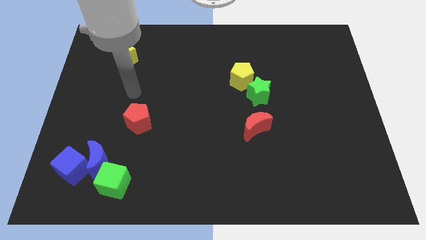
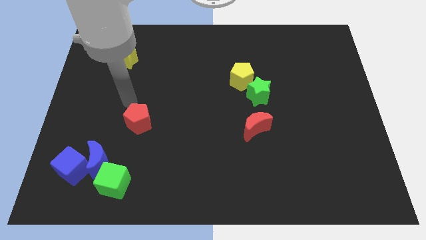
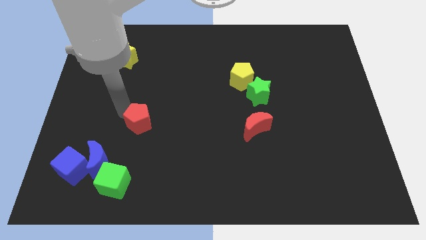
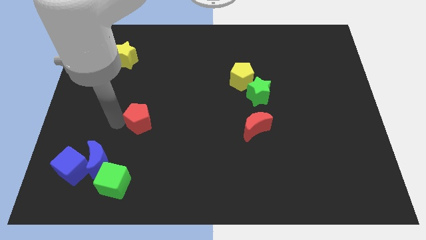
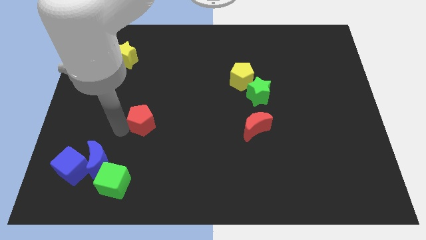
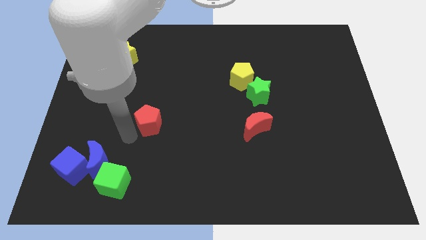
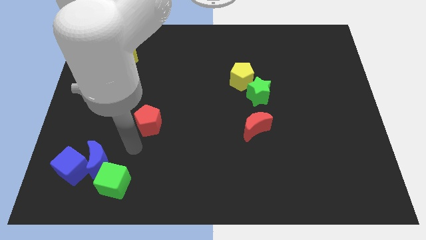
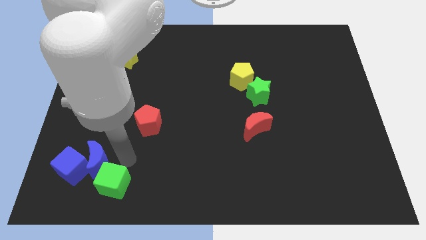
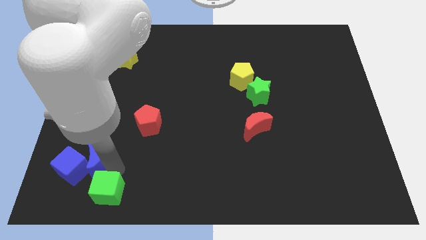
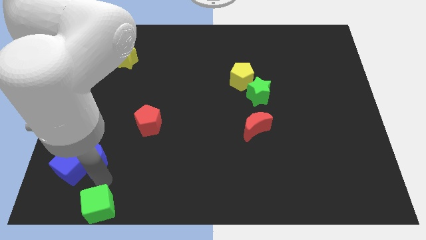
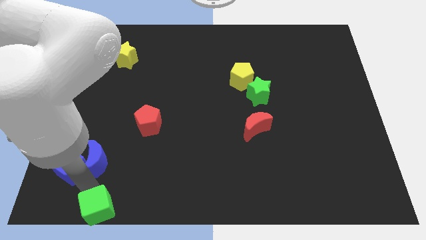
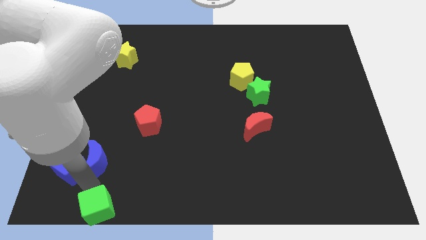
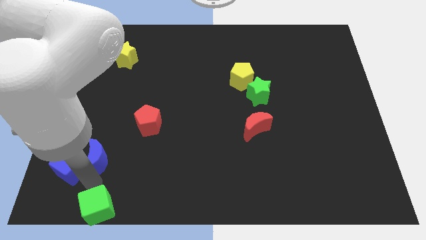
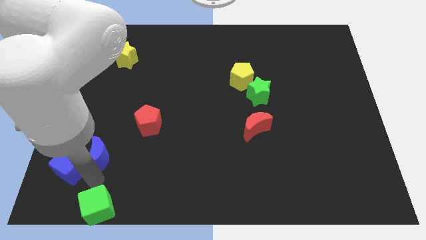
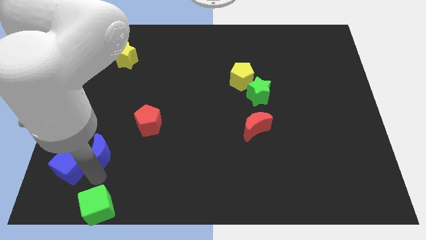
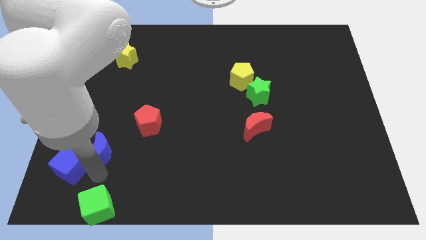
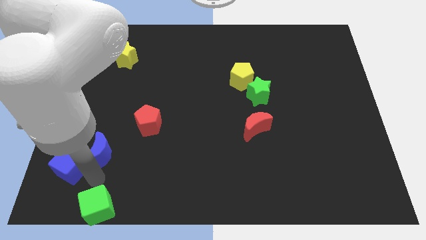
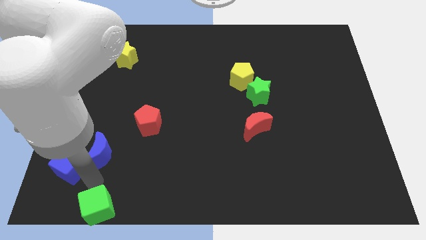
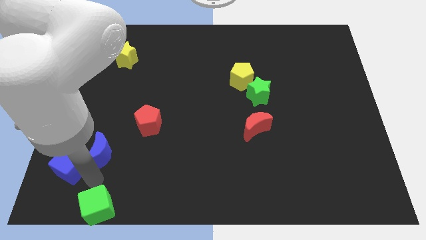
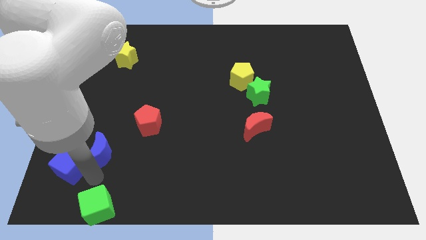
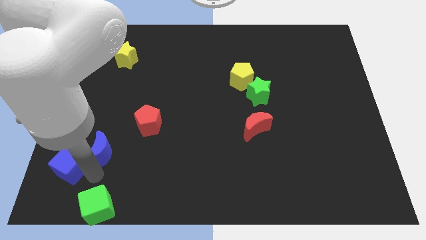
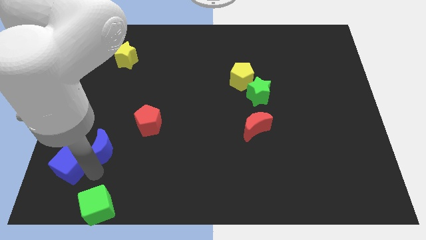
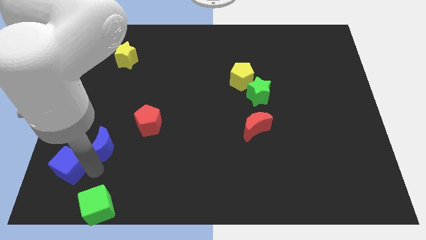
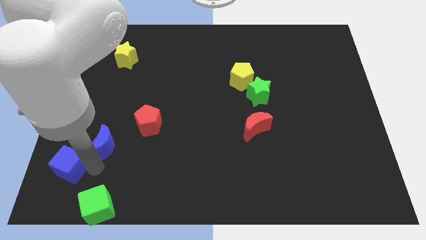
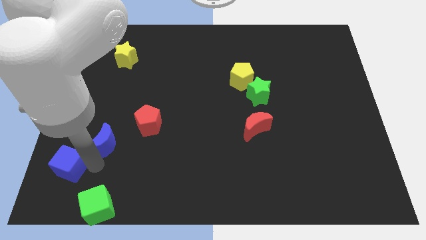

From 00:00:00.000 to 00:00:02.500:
move the blue moon away from the blue cube and green cube

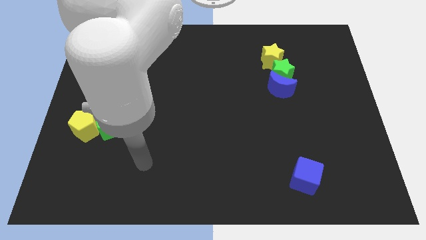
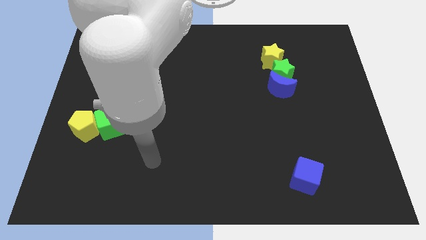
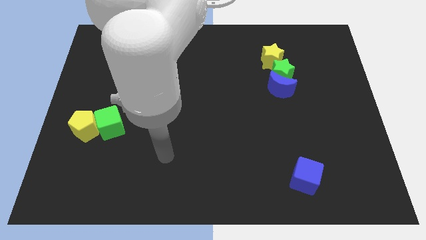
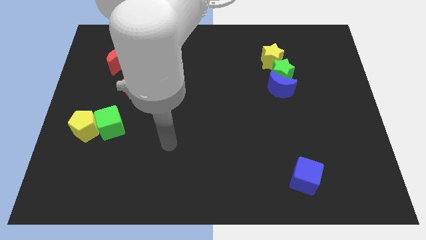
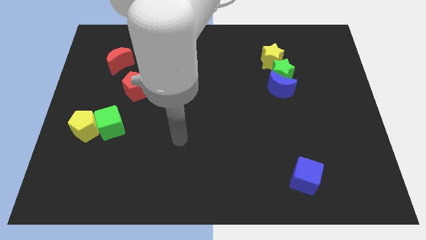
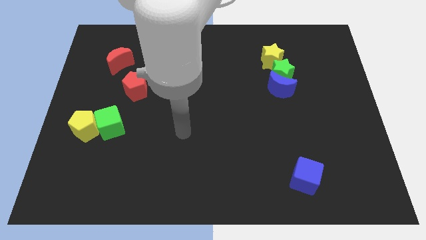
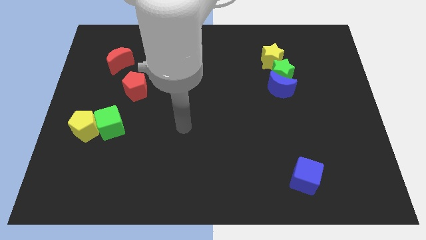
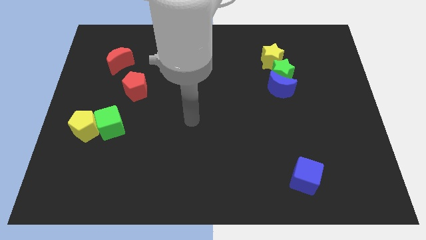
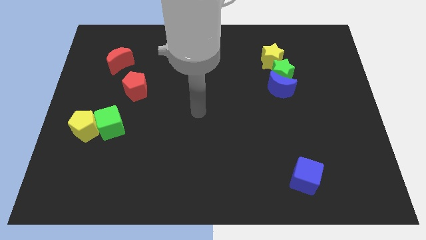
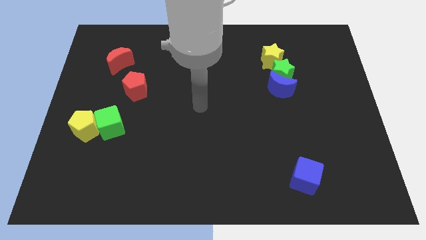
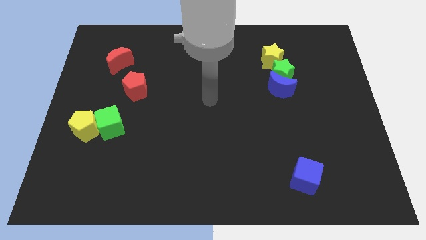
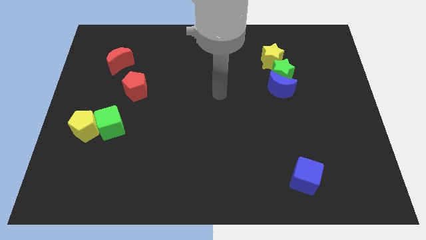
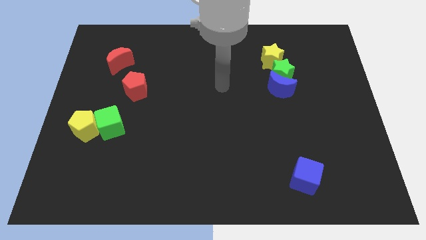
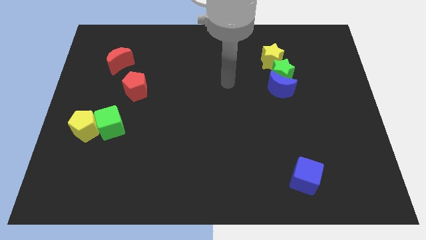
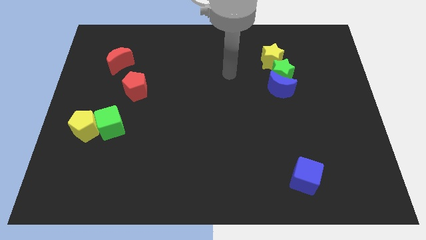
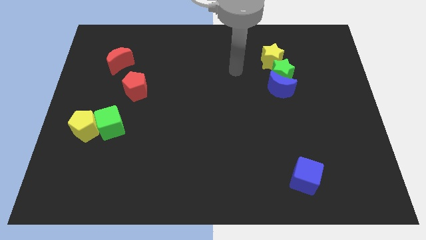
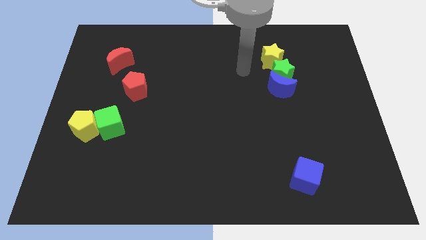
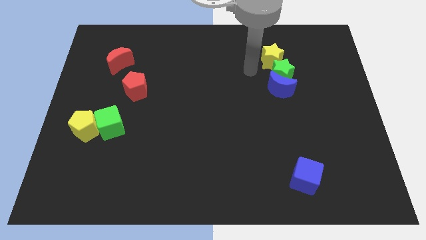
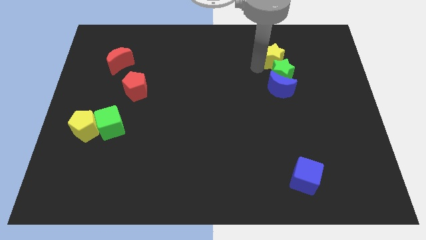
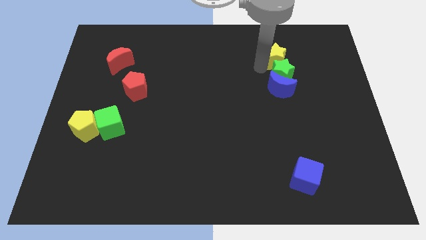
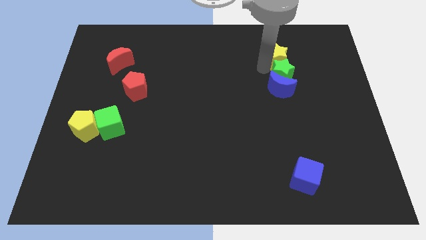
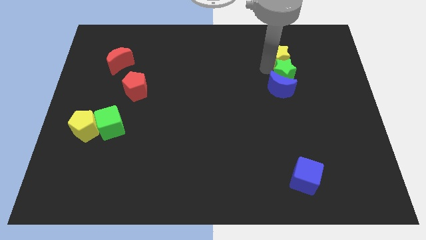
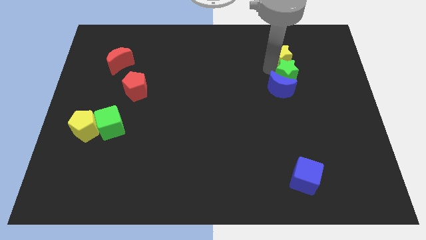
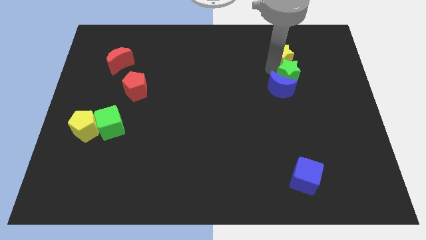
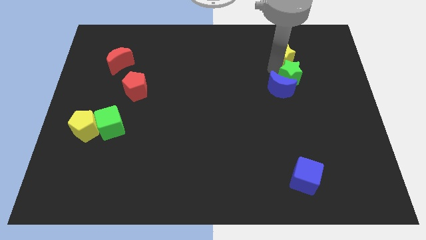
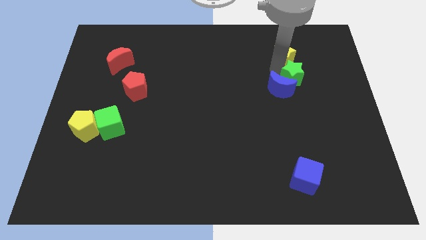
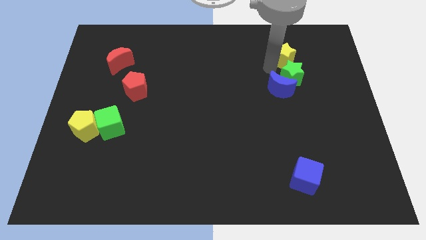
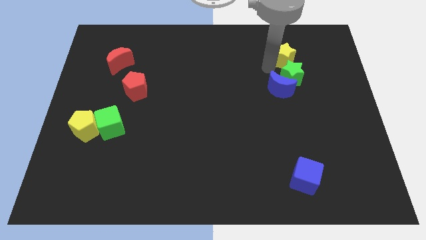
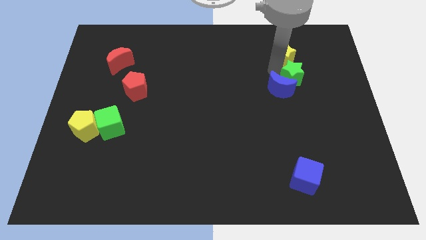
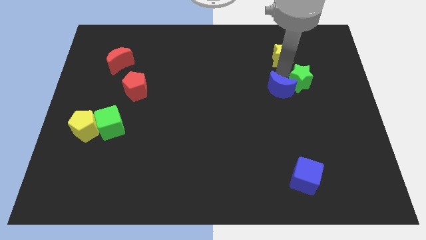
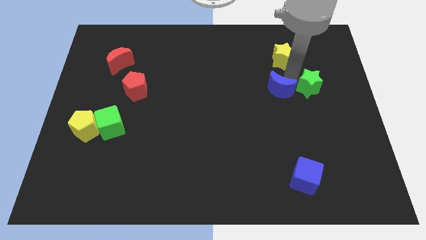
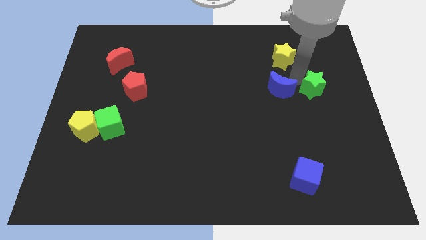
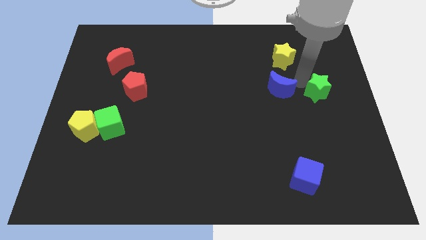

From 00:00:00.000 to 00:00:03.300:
move the green star away from the blue moon and yellow star

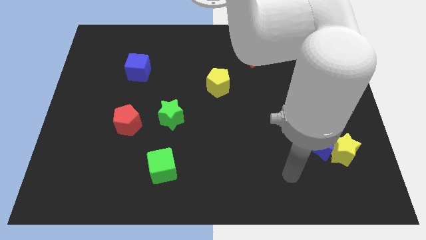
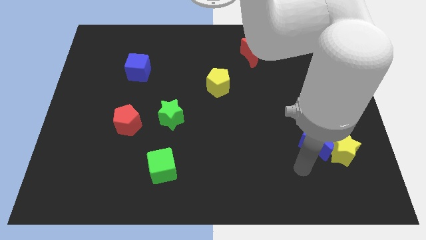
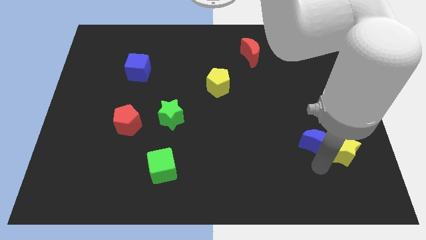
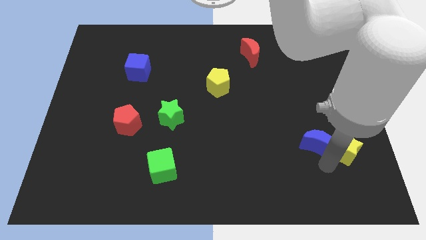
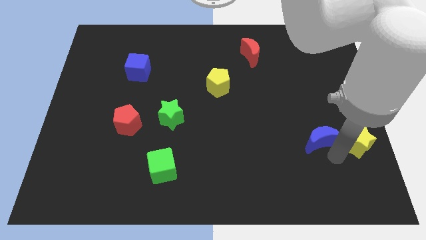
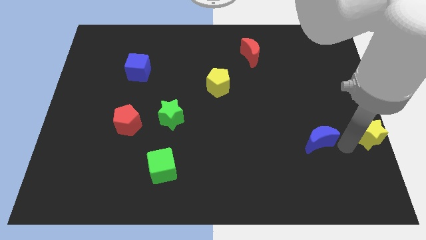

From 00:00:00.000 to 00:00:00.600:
move the blue moon away from the yellow star

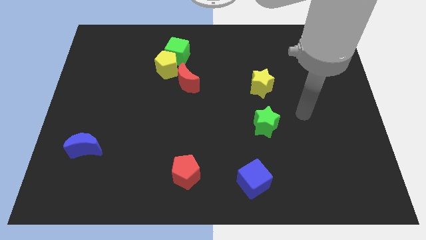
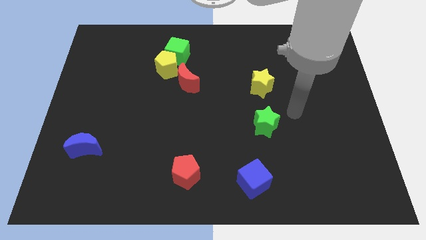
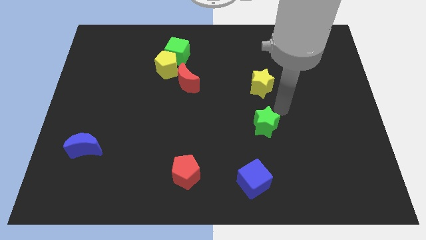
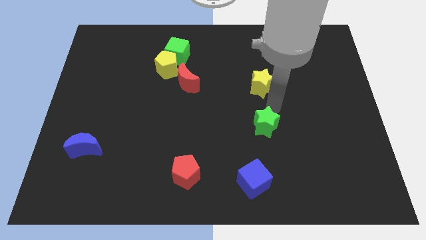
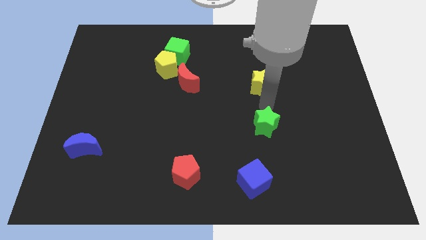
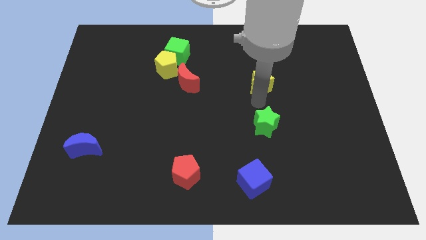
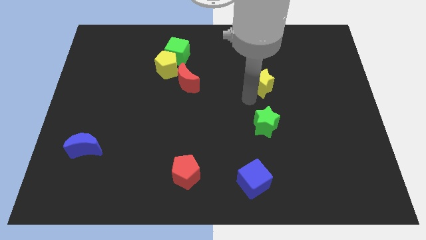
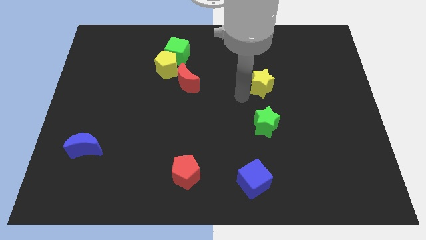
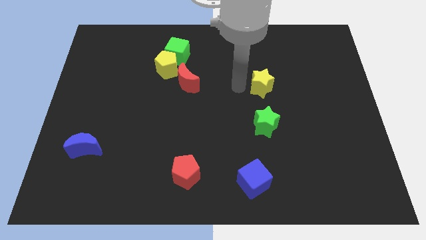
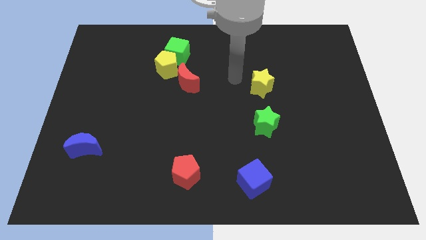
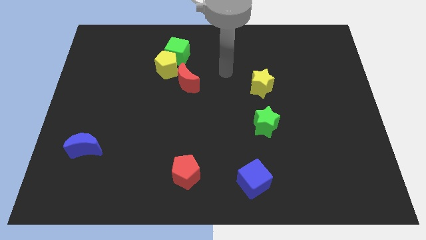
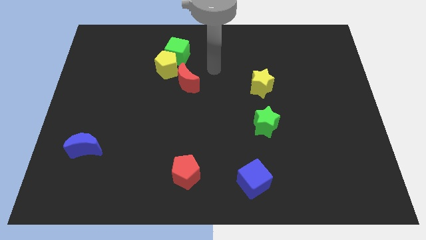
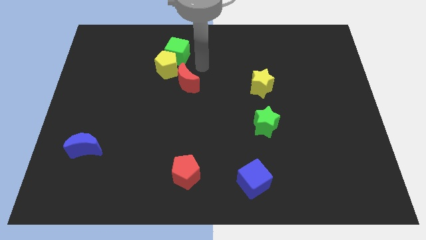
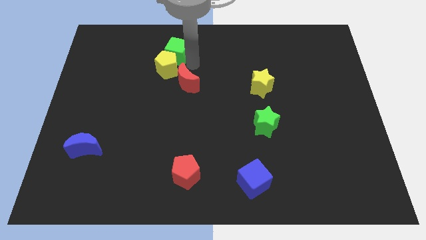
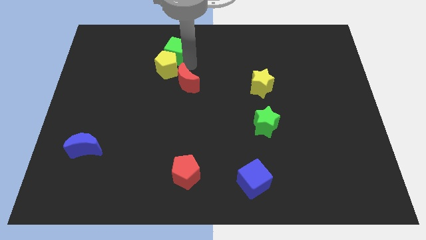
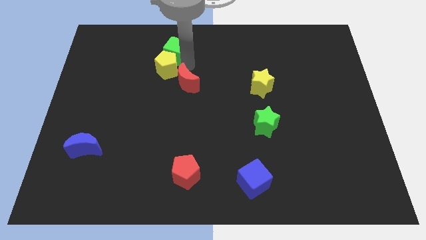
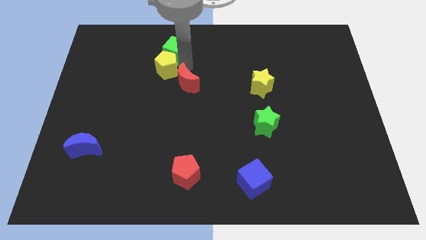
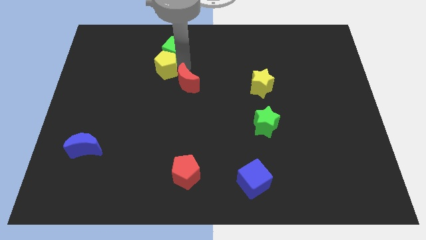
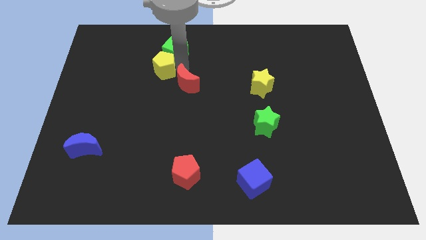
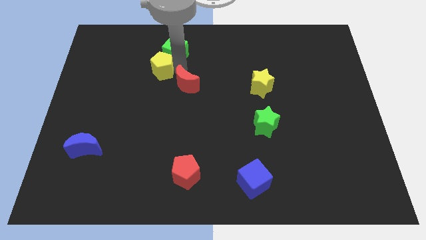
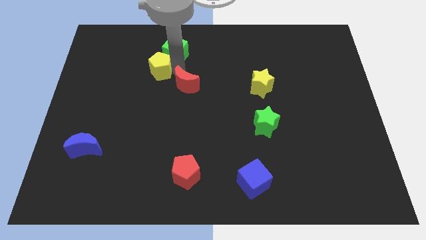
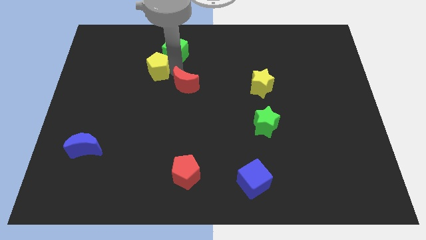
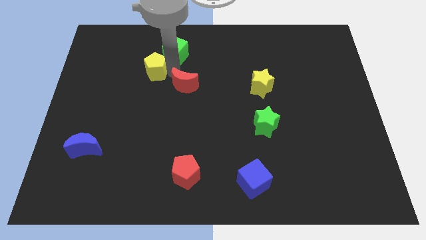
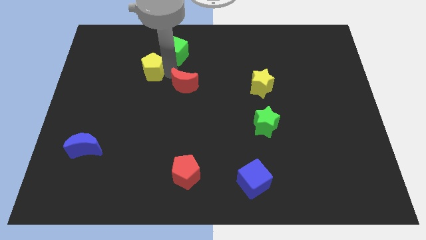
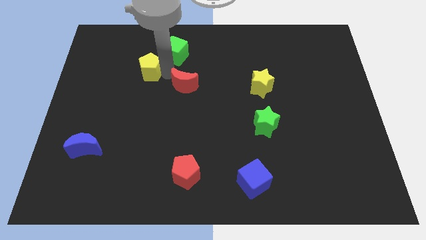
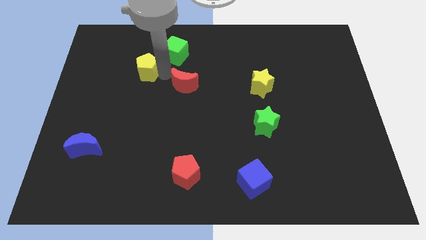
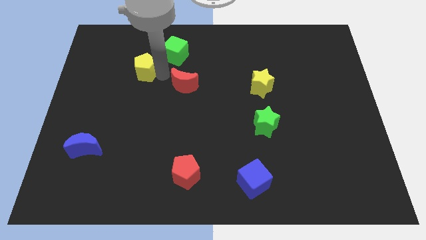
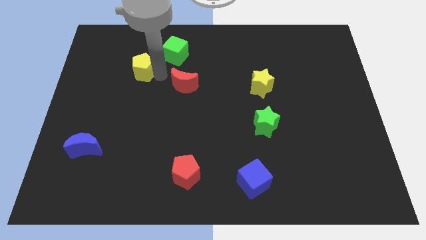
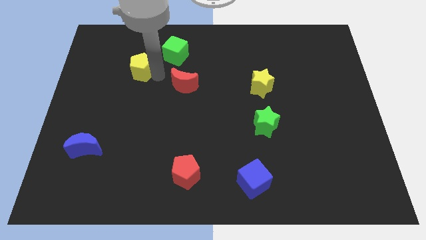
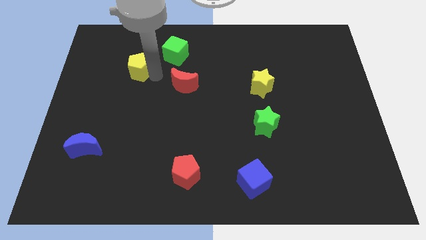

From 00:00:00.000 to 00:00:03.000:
move the yellow pentagon away from the green cube and red moon
